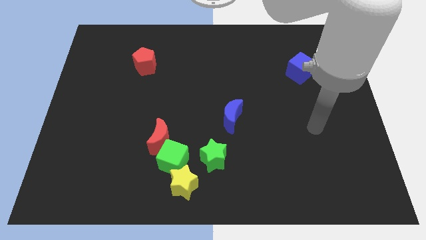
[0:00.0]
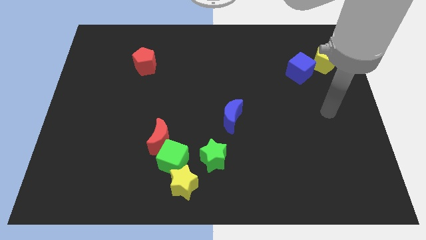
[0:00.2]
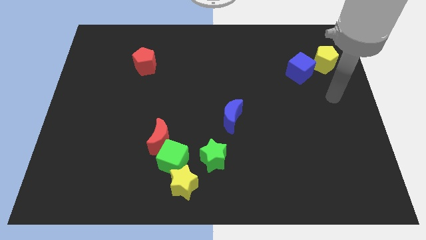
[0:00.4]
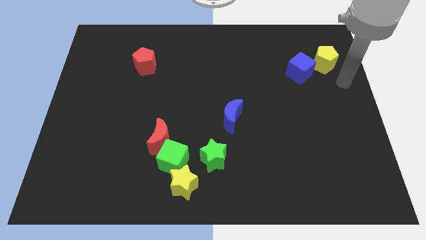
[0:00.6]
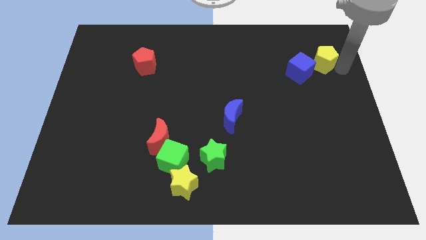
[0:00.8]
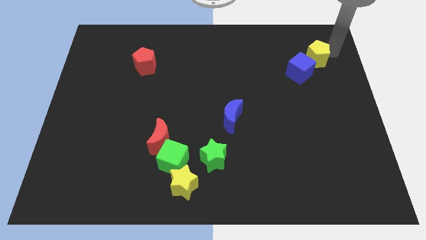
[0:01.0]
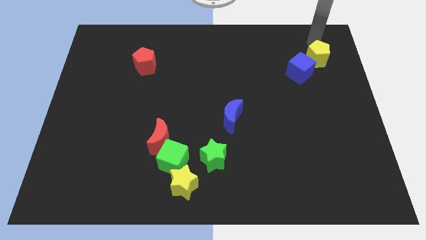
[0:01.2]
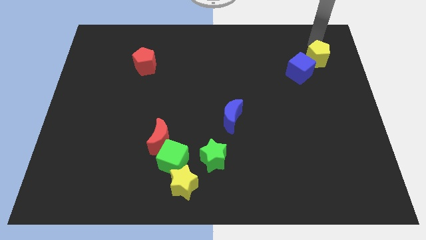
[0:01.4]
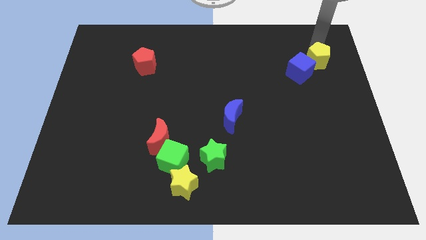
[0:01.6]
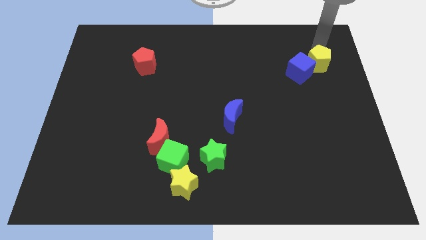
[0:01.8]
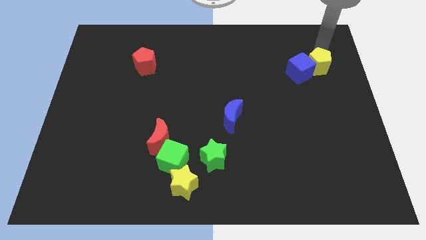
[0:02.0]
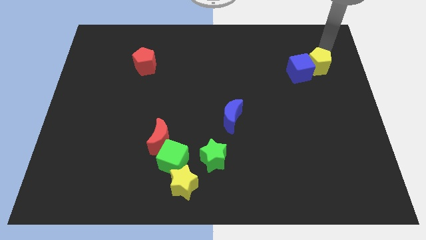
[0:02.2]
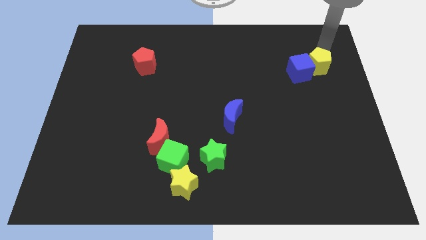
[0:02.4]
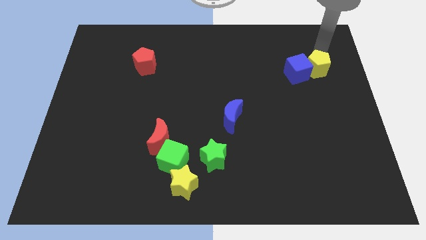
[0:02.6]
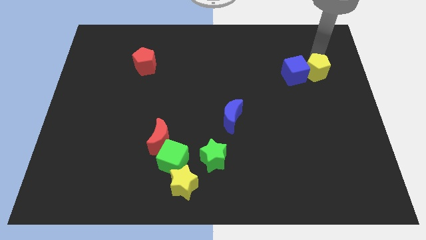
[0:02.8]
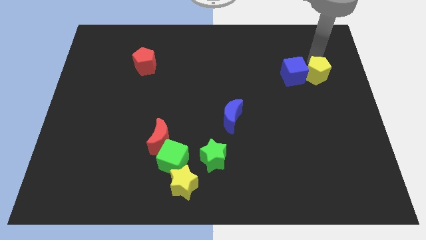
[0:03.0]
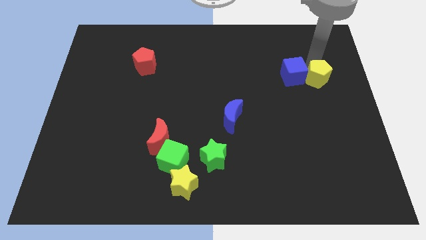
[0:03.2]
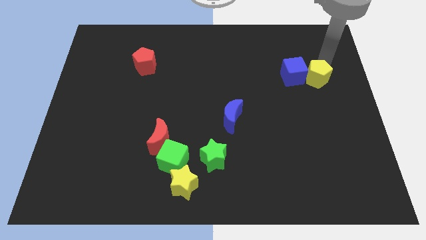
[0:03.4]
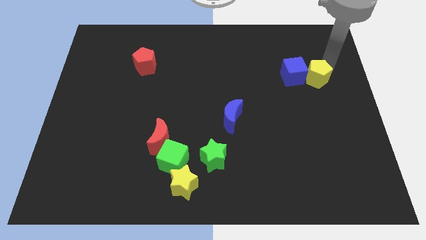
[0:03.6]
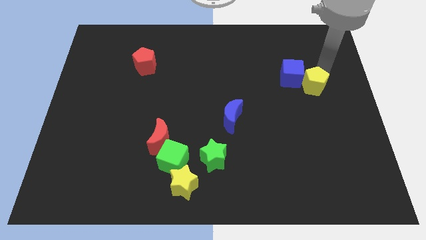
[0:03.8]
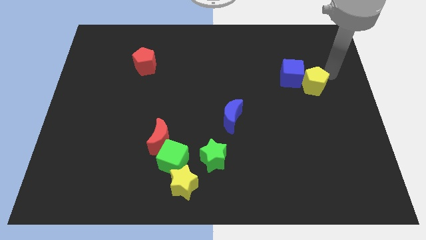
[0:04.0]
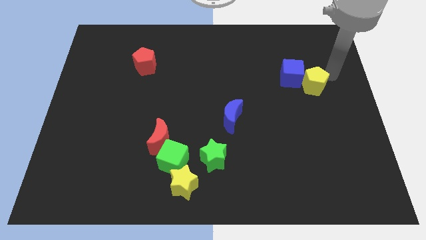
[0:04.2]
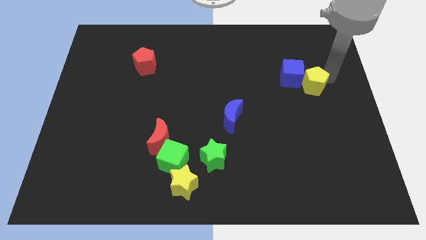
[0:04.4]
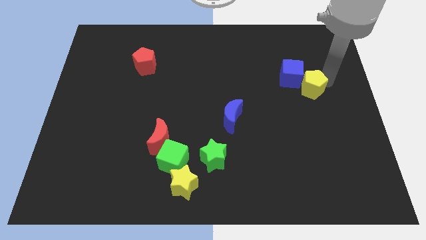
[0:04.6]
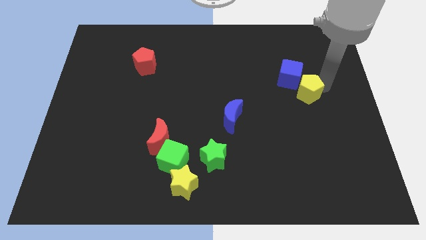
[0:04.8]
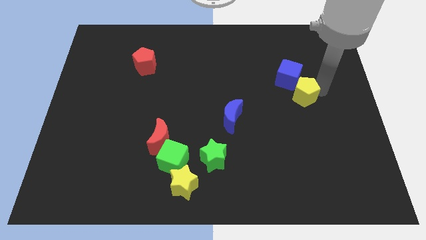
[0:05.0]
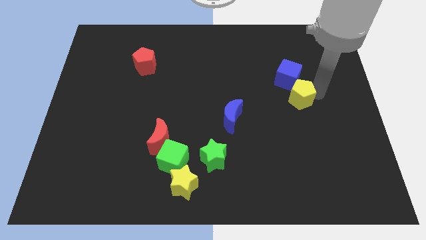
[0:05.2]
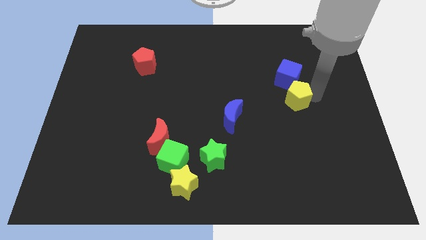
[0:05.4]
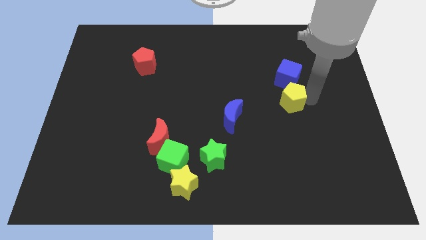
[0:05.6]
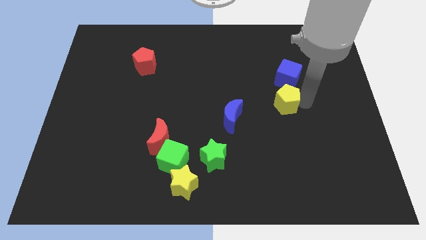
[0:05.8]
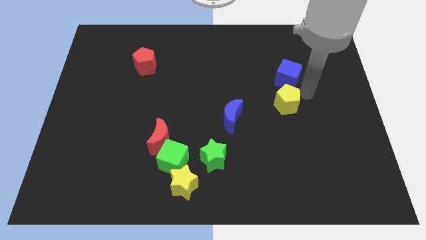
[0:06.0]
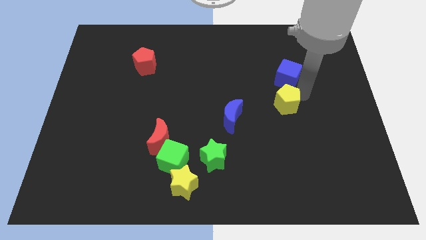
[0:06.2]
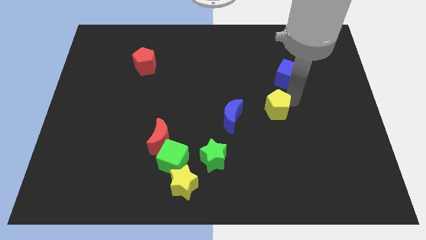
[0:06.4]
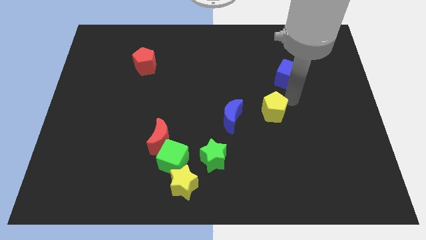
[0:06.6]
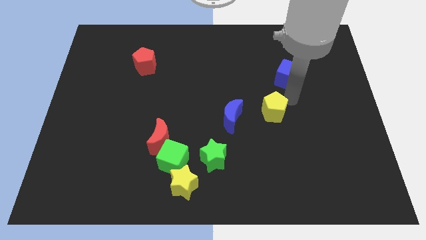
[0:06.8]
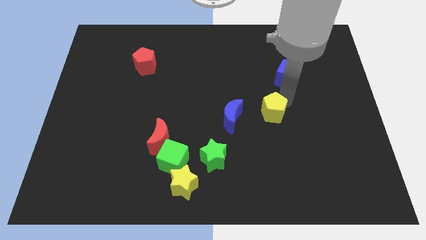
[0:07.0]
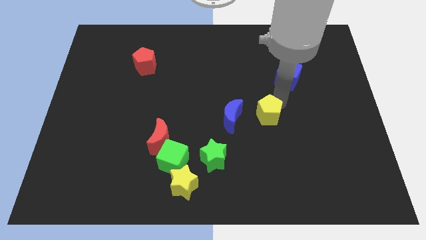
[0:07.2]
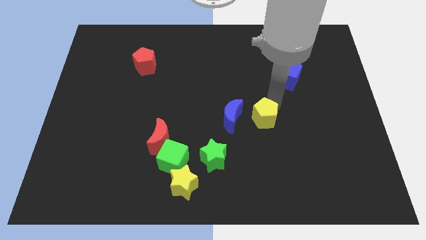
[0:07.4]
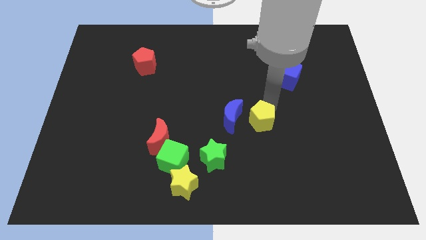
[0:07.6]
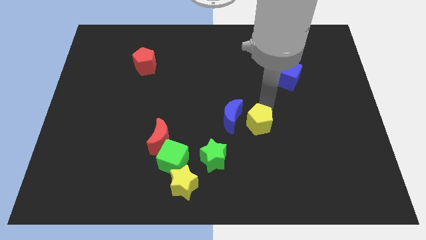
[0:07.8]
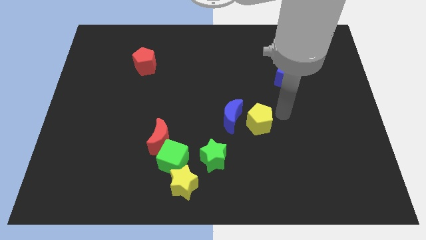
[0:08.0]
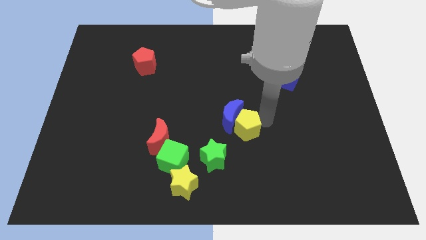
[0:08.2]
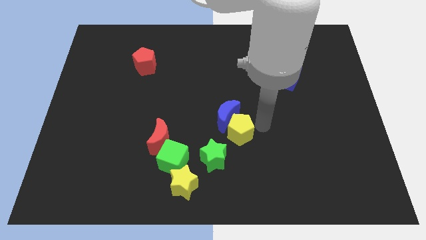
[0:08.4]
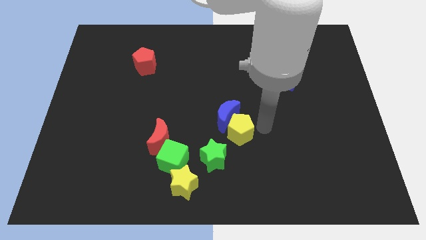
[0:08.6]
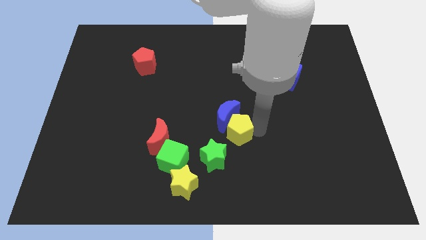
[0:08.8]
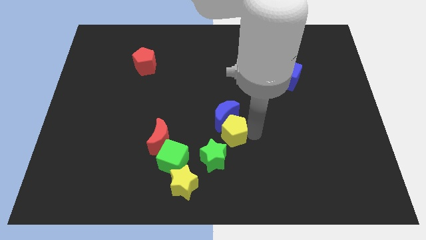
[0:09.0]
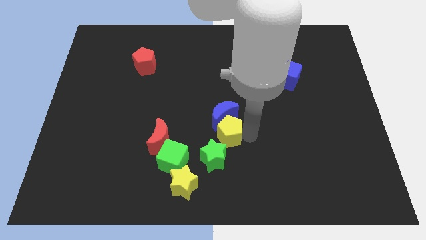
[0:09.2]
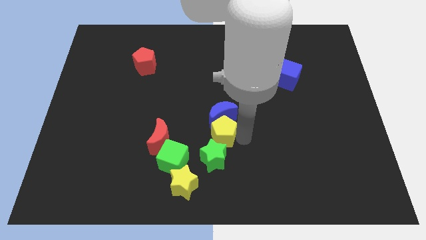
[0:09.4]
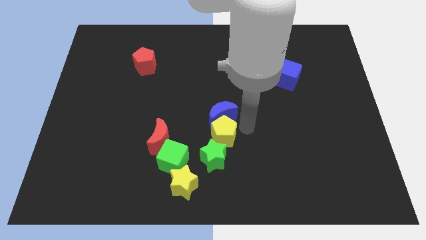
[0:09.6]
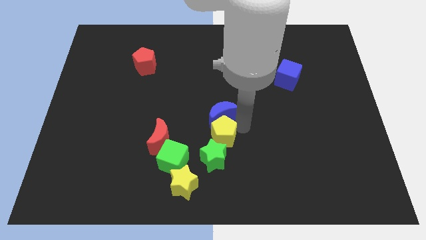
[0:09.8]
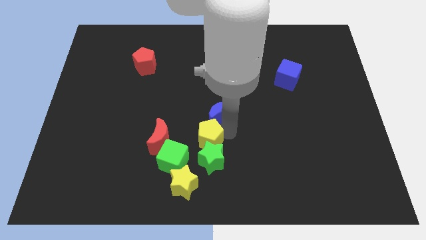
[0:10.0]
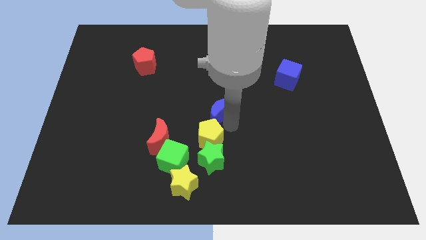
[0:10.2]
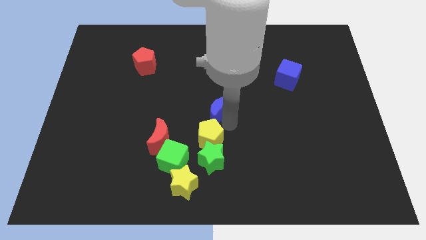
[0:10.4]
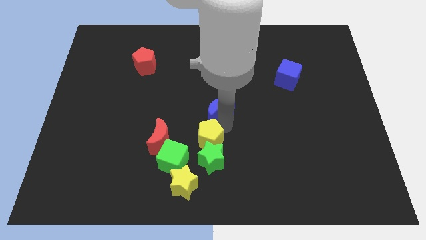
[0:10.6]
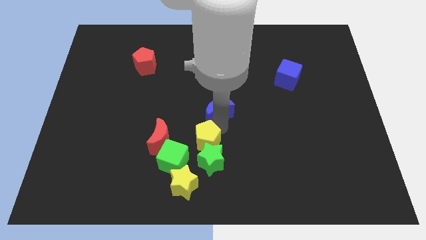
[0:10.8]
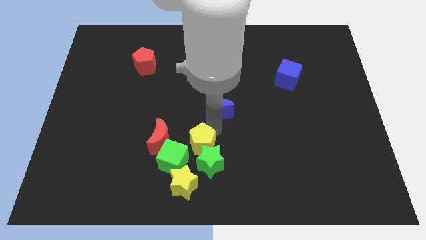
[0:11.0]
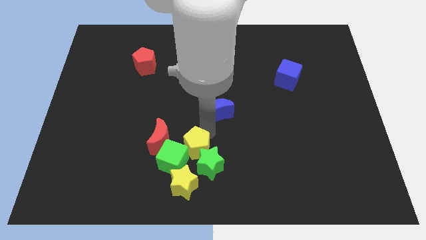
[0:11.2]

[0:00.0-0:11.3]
move the yellow pentagon close to the green cube

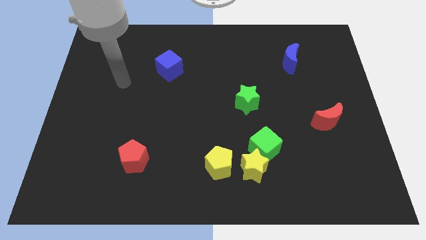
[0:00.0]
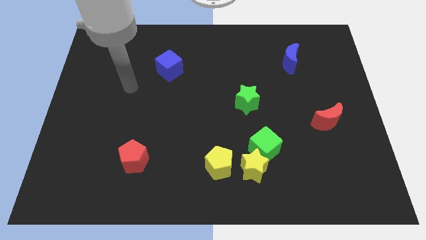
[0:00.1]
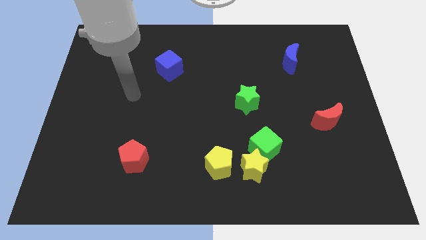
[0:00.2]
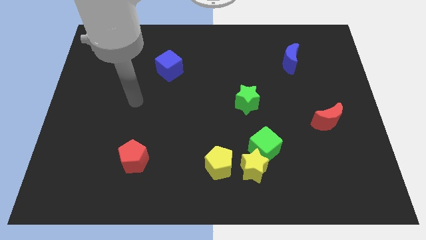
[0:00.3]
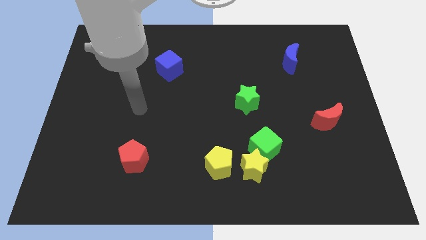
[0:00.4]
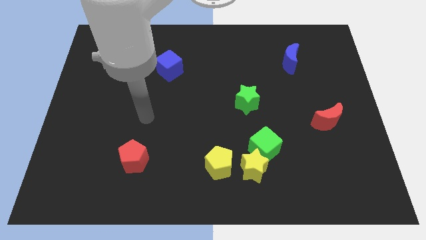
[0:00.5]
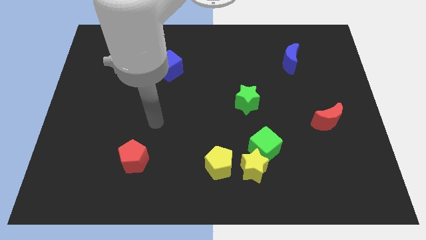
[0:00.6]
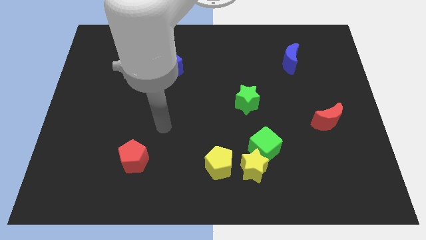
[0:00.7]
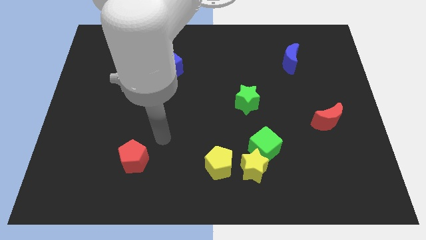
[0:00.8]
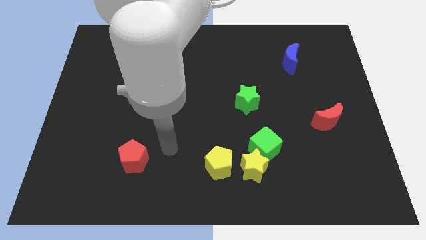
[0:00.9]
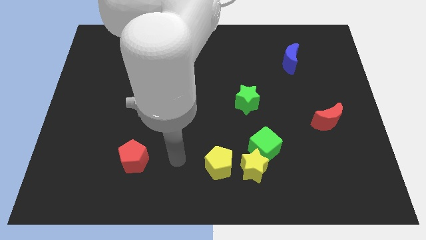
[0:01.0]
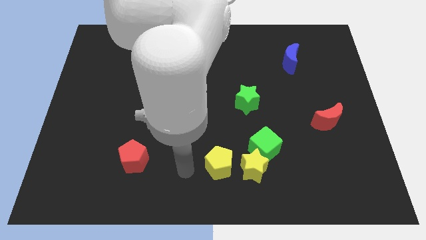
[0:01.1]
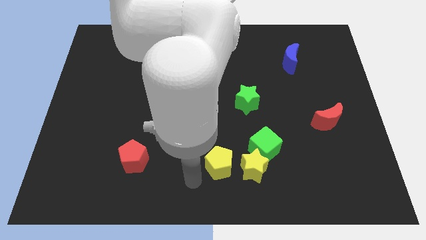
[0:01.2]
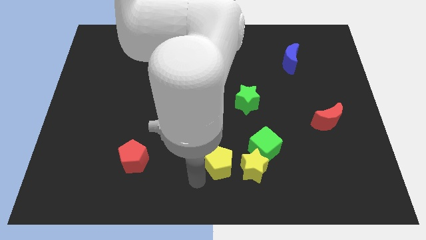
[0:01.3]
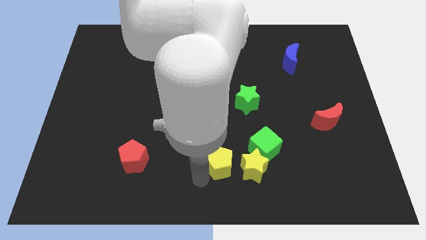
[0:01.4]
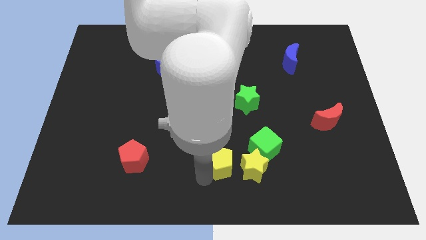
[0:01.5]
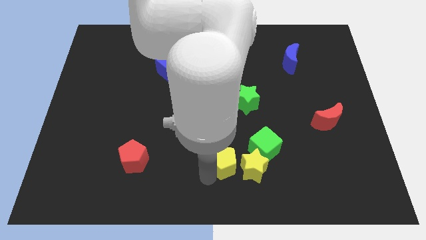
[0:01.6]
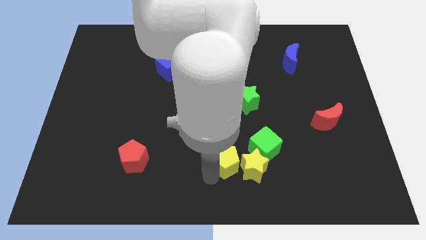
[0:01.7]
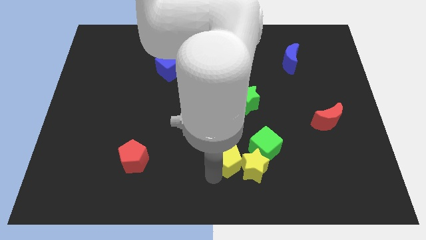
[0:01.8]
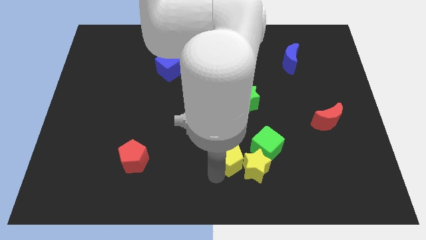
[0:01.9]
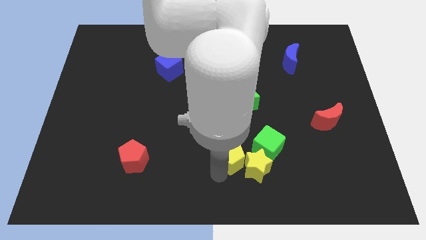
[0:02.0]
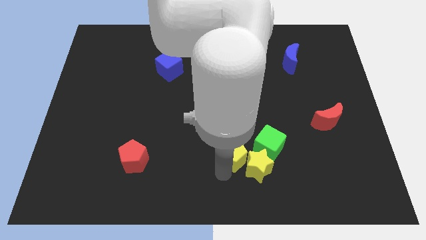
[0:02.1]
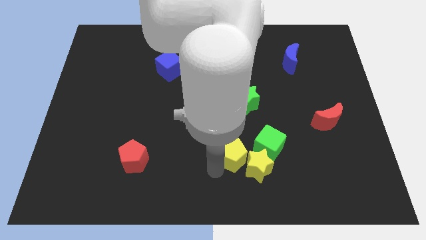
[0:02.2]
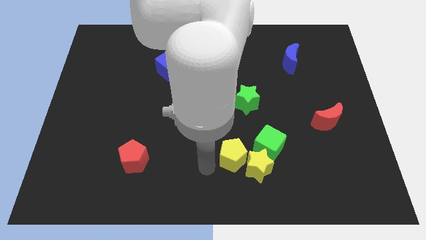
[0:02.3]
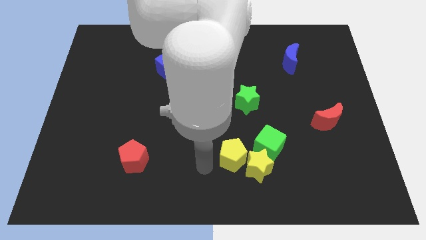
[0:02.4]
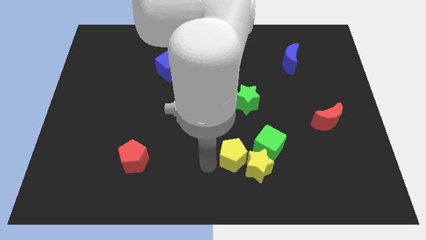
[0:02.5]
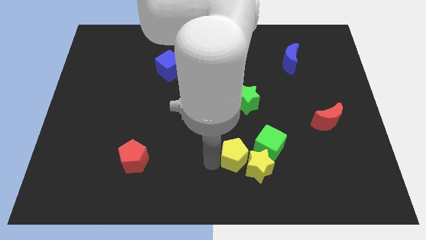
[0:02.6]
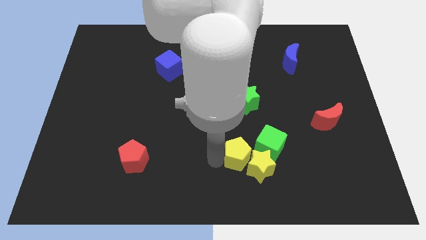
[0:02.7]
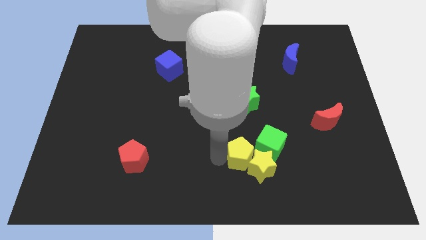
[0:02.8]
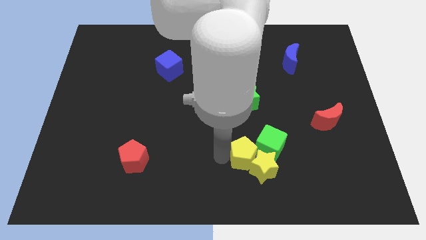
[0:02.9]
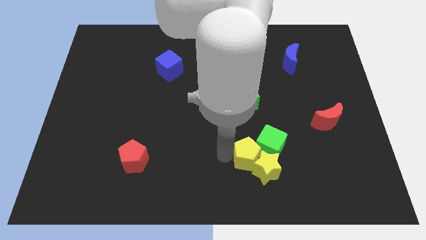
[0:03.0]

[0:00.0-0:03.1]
move the yellow pentagon towards the green cube
